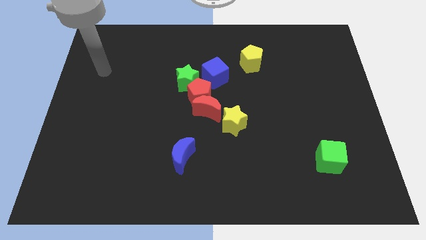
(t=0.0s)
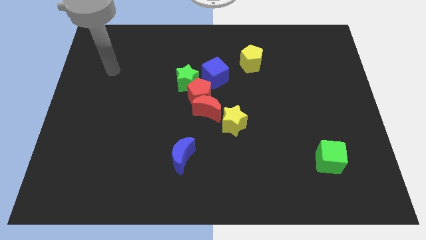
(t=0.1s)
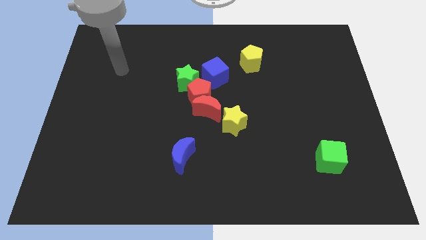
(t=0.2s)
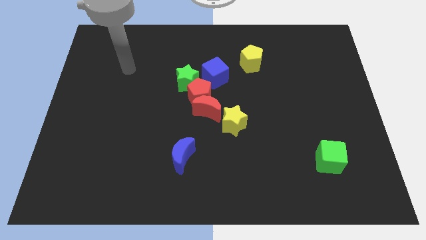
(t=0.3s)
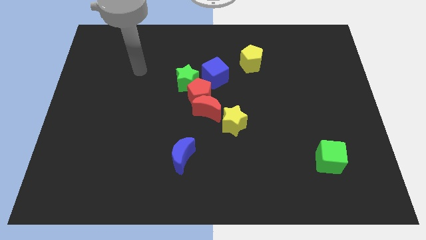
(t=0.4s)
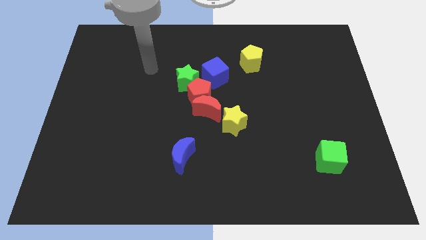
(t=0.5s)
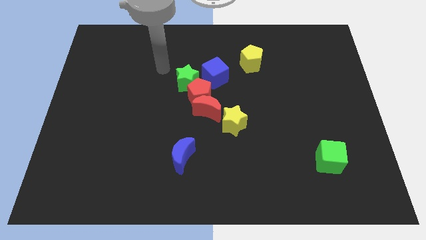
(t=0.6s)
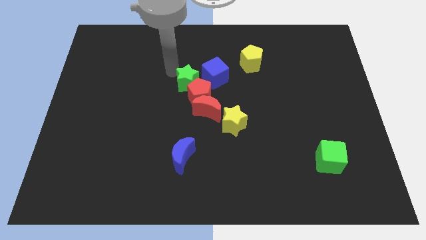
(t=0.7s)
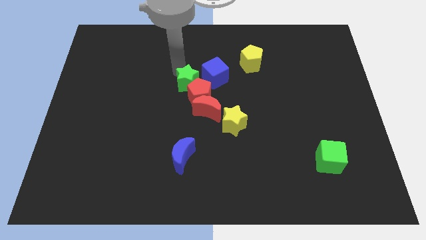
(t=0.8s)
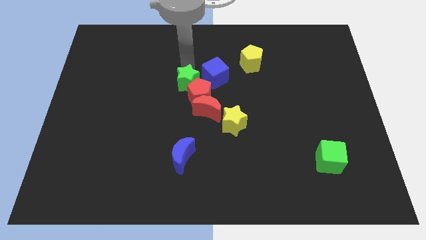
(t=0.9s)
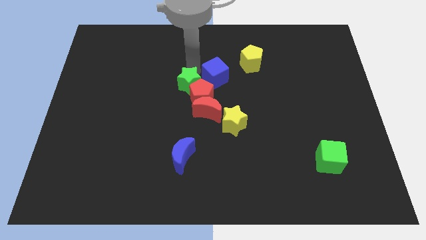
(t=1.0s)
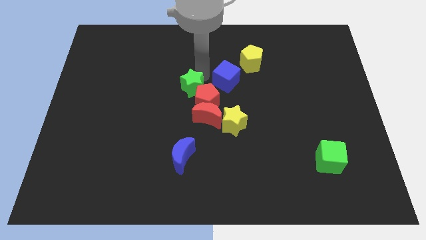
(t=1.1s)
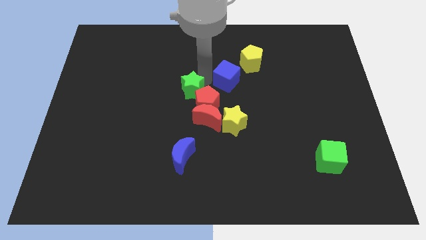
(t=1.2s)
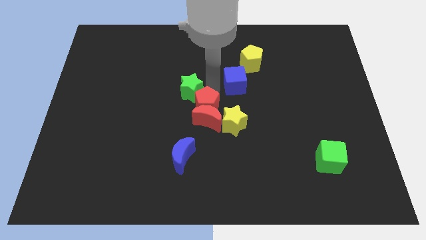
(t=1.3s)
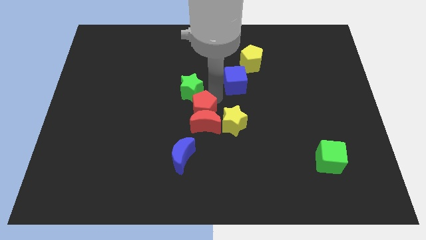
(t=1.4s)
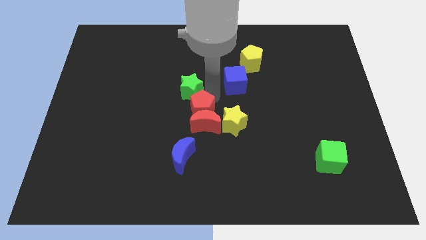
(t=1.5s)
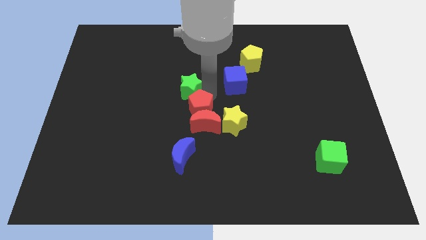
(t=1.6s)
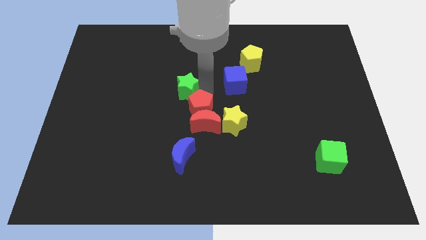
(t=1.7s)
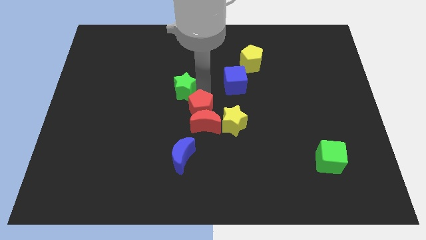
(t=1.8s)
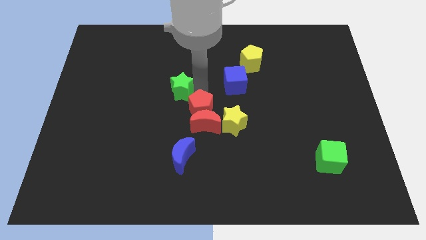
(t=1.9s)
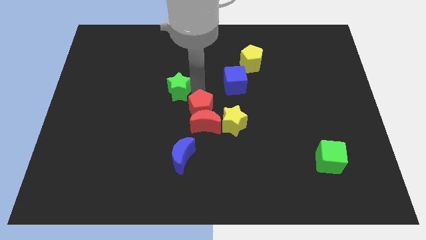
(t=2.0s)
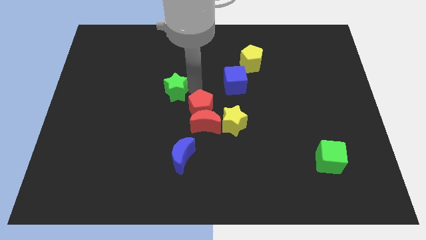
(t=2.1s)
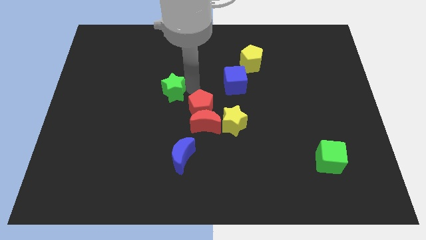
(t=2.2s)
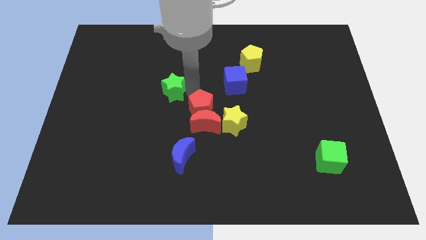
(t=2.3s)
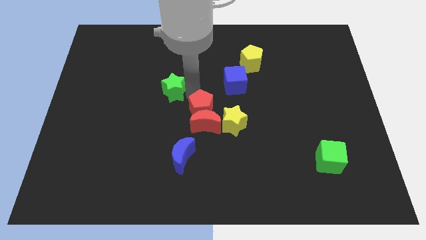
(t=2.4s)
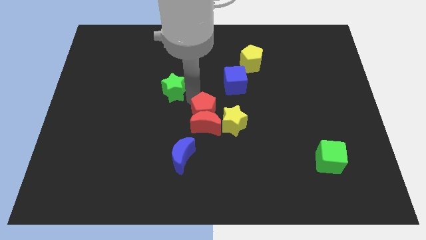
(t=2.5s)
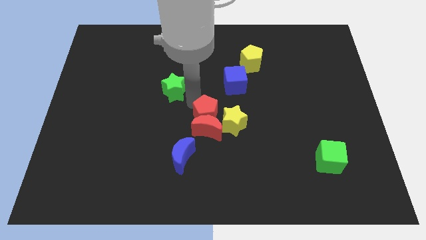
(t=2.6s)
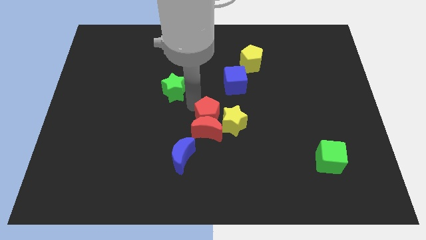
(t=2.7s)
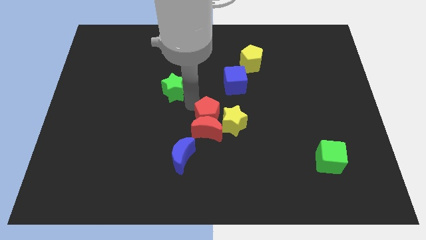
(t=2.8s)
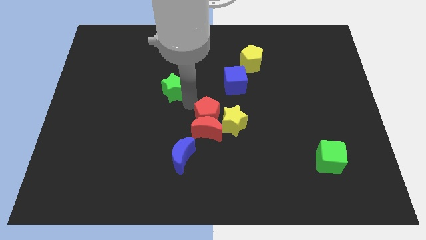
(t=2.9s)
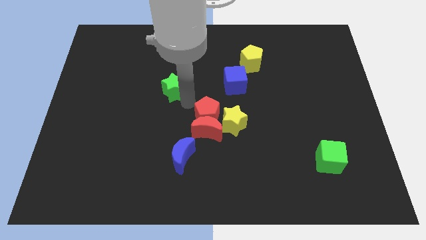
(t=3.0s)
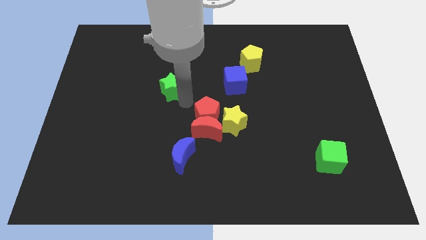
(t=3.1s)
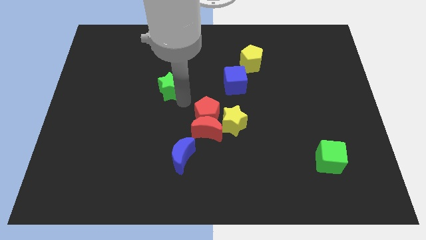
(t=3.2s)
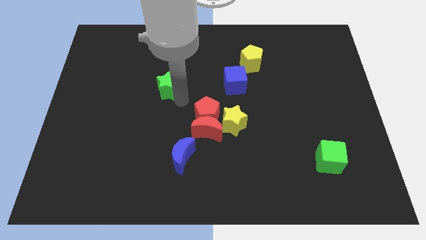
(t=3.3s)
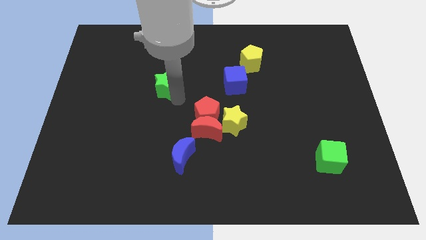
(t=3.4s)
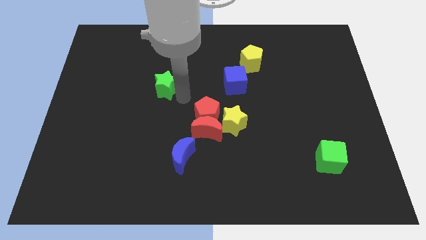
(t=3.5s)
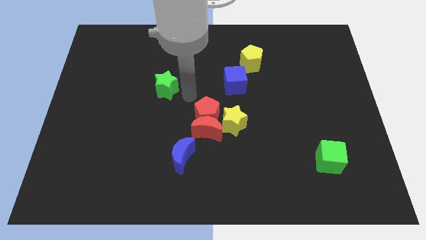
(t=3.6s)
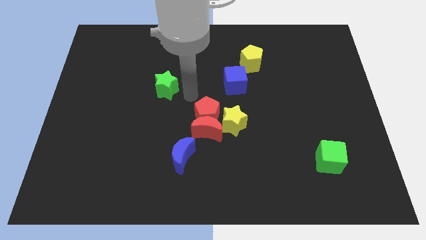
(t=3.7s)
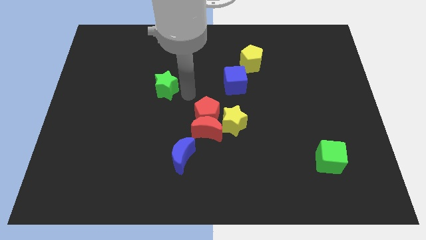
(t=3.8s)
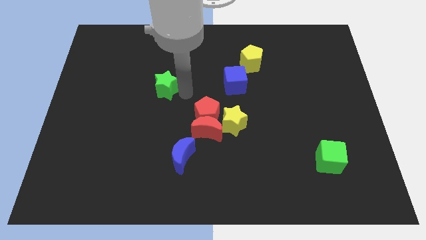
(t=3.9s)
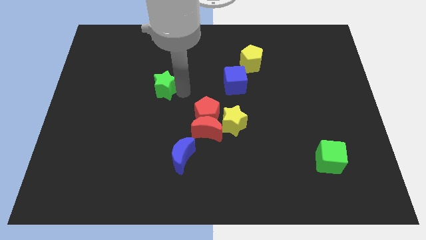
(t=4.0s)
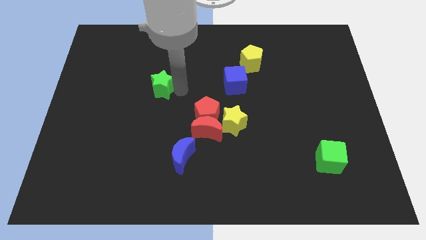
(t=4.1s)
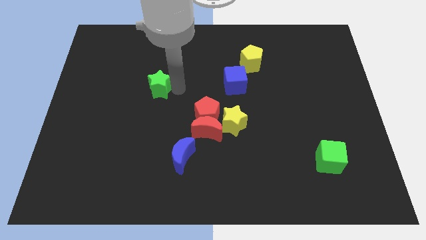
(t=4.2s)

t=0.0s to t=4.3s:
slide the green star somewhat to the left

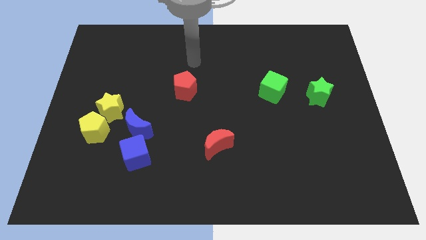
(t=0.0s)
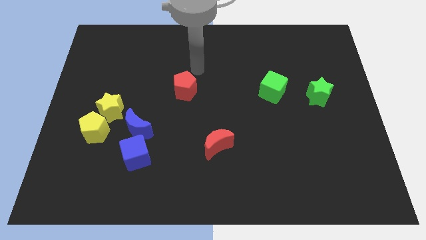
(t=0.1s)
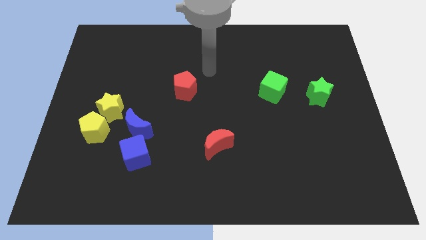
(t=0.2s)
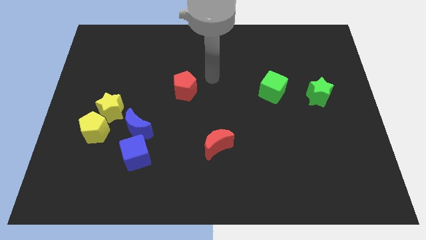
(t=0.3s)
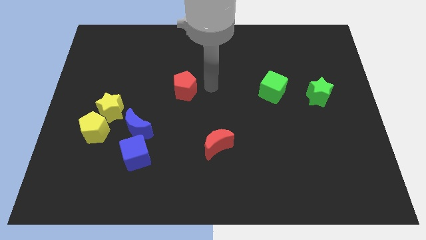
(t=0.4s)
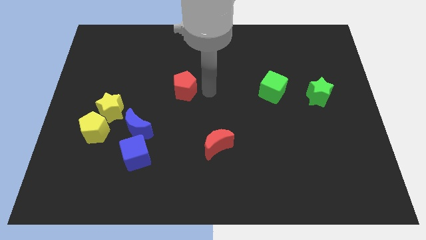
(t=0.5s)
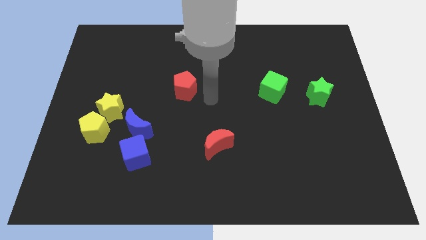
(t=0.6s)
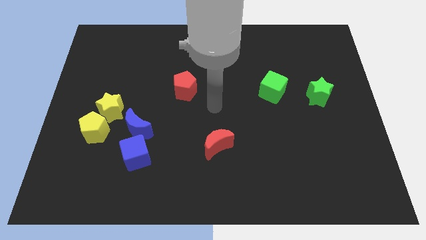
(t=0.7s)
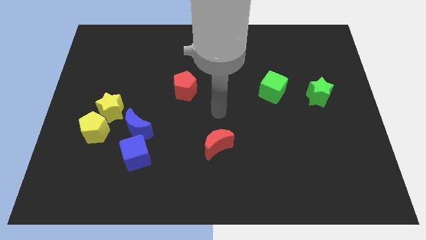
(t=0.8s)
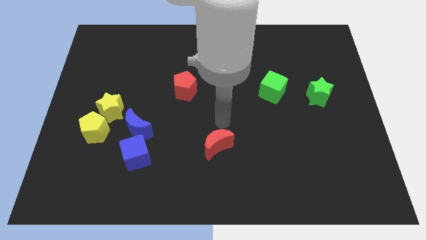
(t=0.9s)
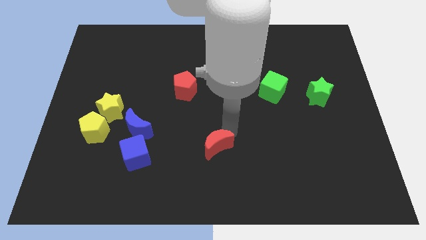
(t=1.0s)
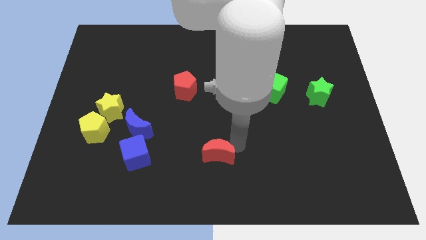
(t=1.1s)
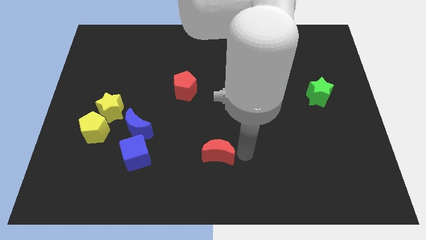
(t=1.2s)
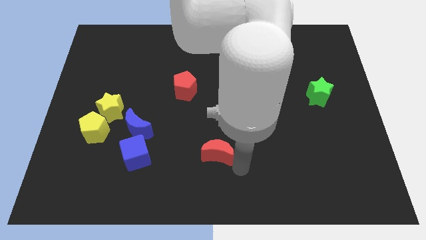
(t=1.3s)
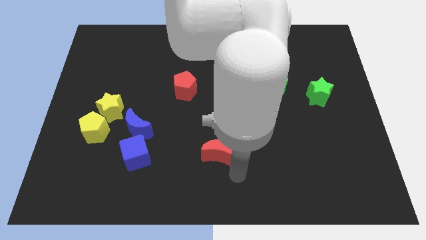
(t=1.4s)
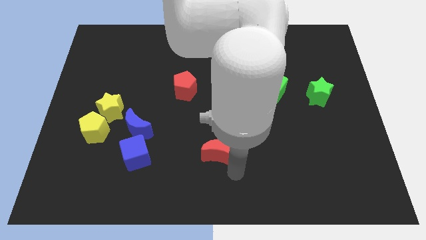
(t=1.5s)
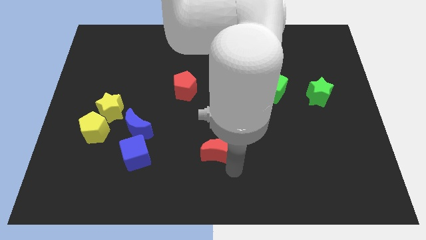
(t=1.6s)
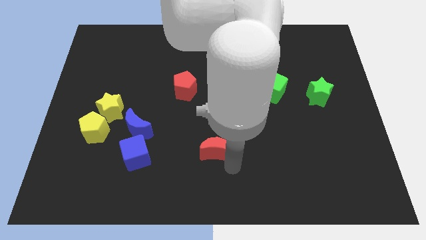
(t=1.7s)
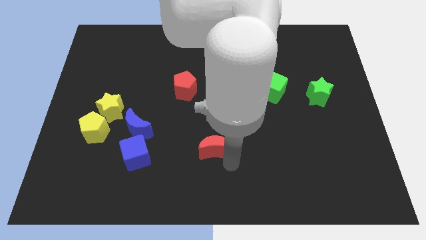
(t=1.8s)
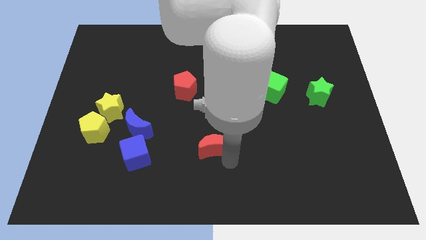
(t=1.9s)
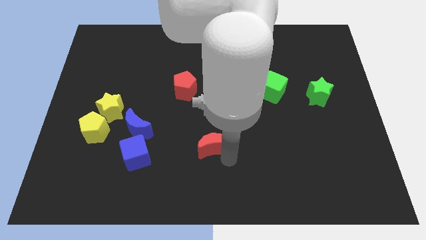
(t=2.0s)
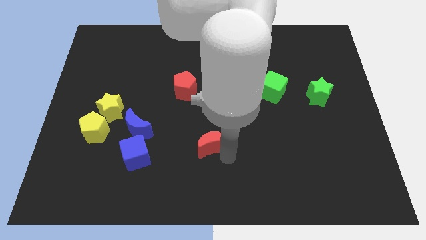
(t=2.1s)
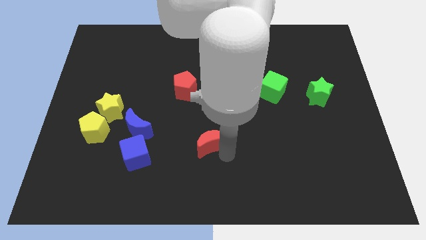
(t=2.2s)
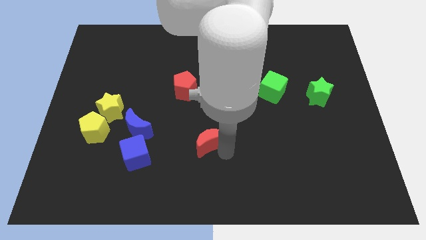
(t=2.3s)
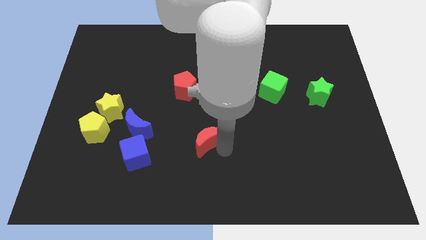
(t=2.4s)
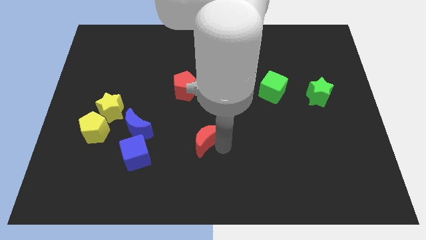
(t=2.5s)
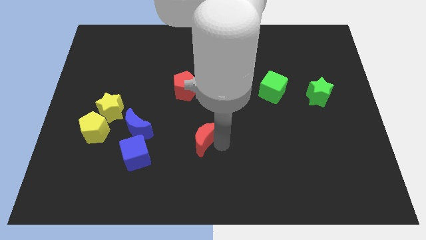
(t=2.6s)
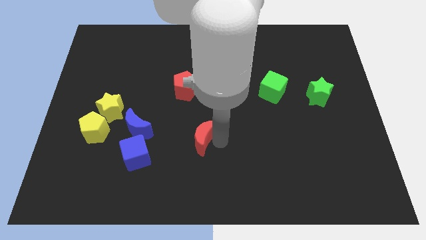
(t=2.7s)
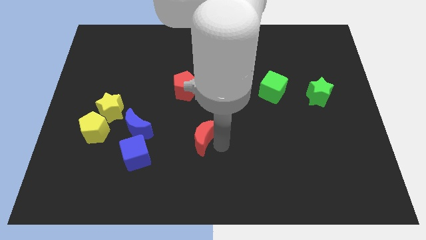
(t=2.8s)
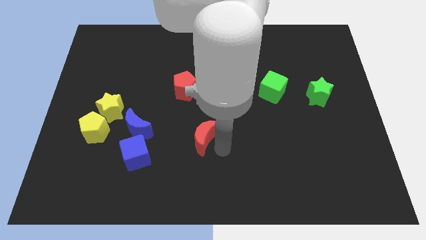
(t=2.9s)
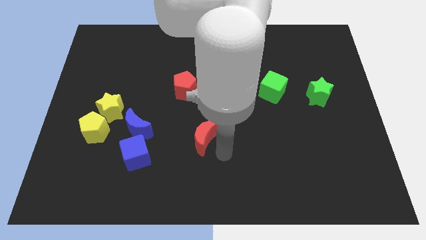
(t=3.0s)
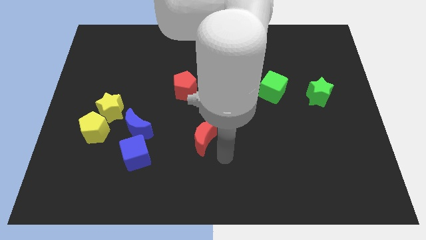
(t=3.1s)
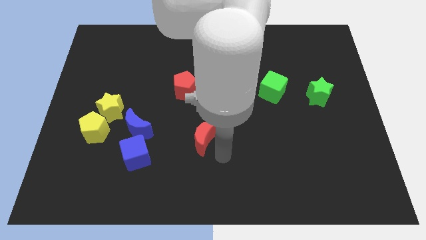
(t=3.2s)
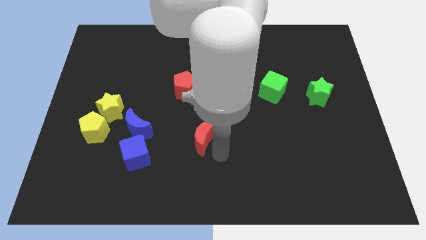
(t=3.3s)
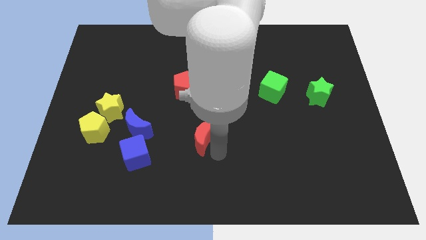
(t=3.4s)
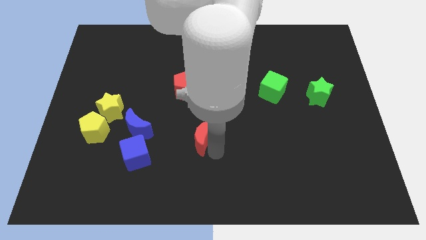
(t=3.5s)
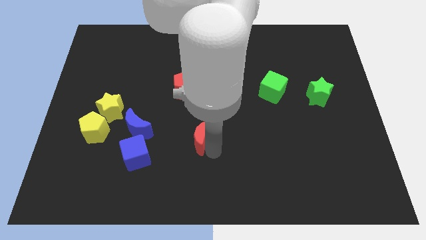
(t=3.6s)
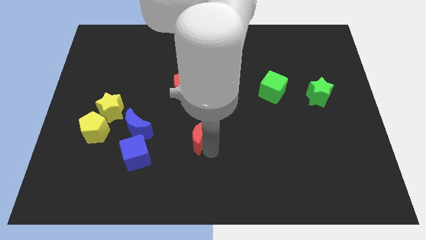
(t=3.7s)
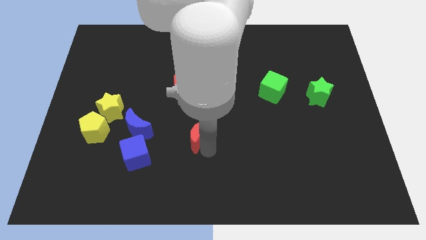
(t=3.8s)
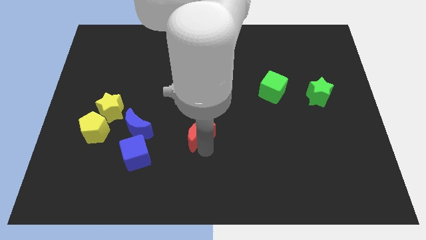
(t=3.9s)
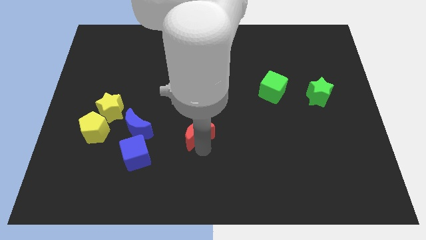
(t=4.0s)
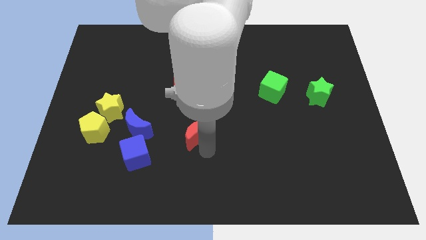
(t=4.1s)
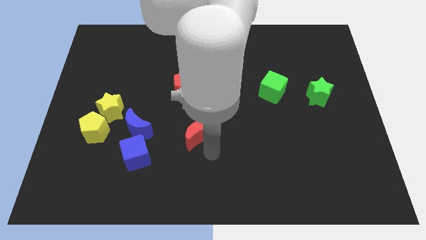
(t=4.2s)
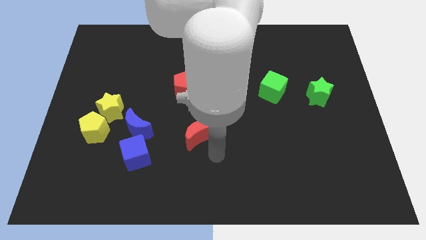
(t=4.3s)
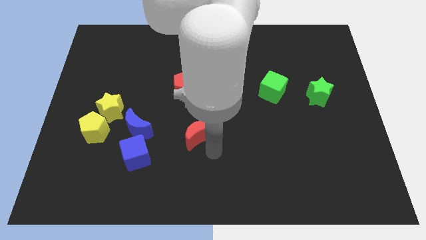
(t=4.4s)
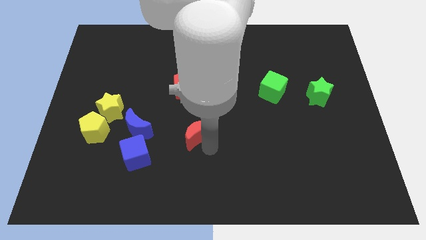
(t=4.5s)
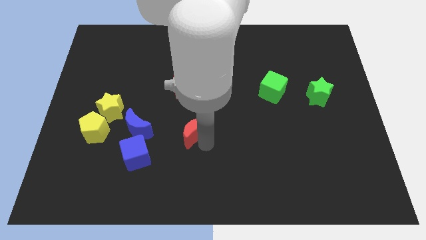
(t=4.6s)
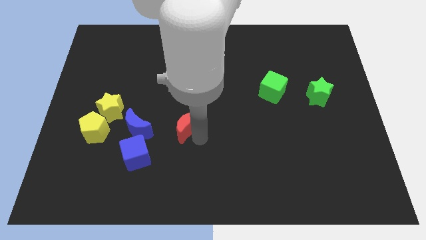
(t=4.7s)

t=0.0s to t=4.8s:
slide the red moon slightly diagonally upwards and left
